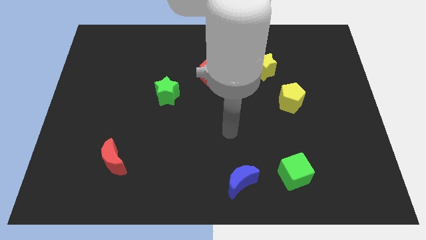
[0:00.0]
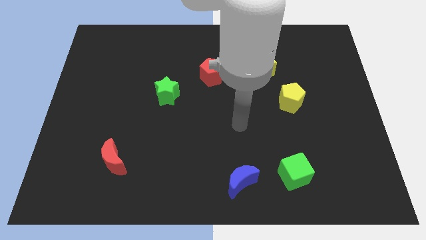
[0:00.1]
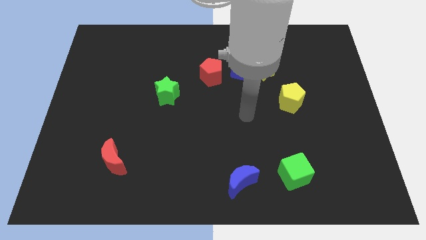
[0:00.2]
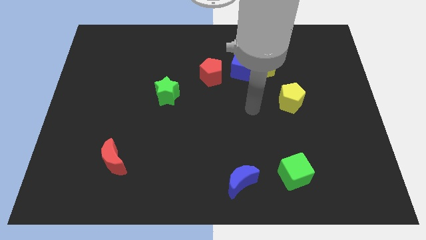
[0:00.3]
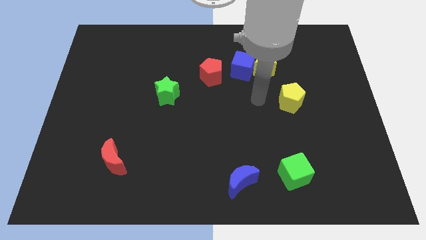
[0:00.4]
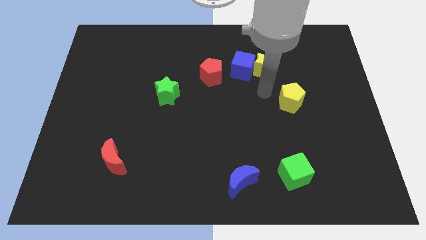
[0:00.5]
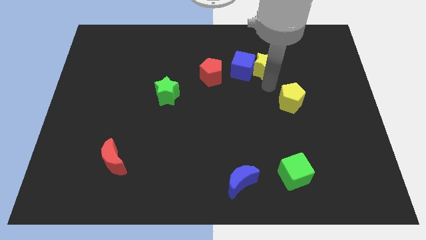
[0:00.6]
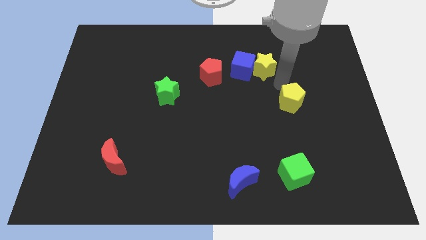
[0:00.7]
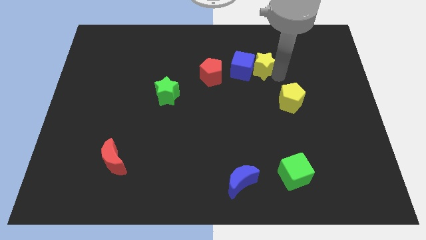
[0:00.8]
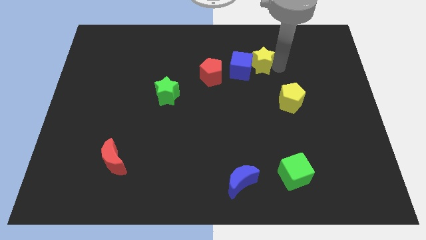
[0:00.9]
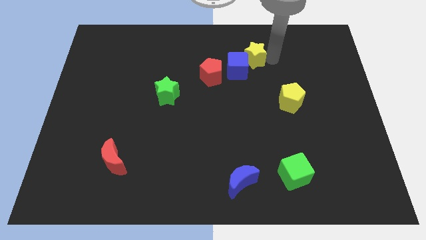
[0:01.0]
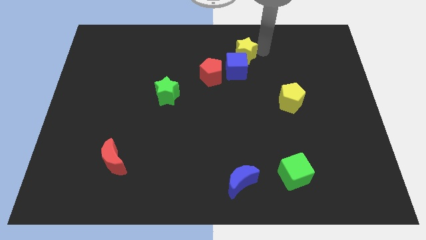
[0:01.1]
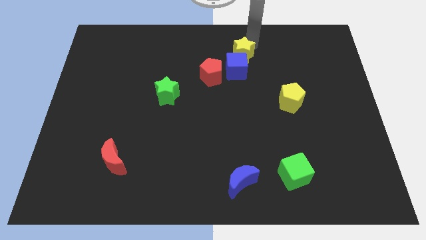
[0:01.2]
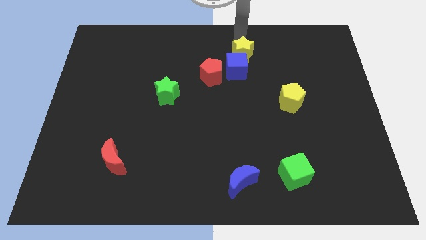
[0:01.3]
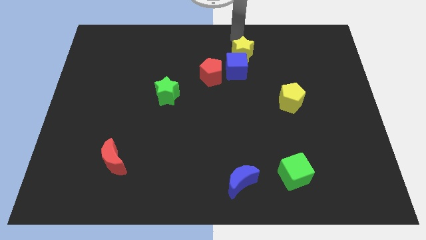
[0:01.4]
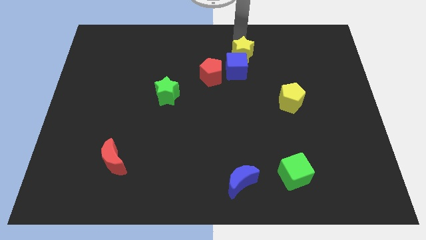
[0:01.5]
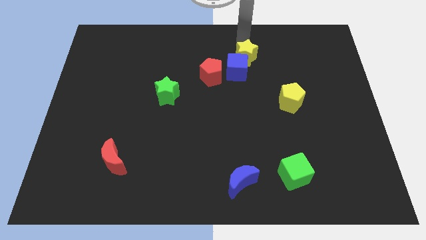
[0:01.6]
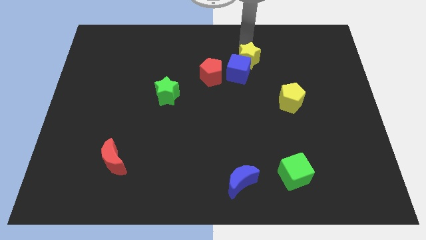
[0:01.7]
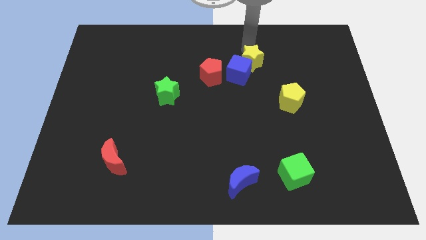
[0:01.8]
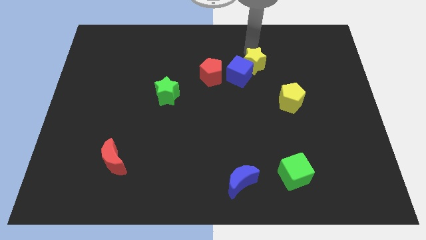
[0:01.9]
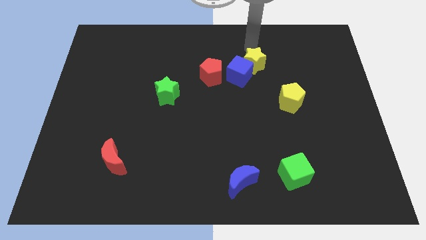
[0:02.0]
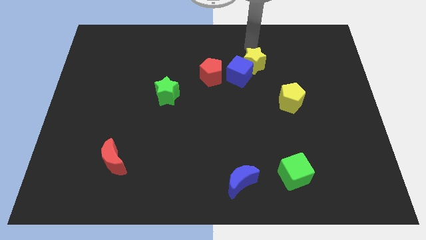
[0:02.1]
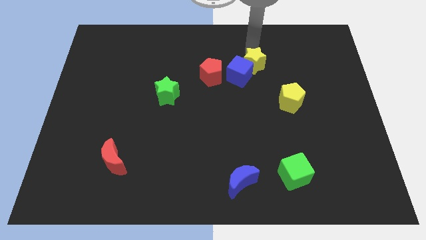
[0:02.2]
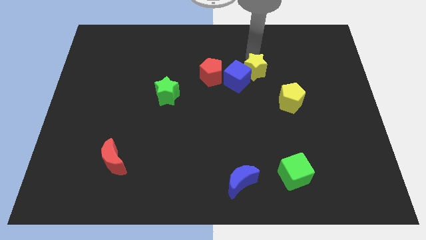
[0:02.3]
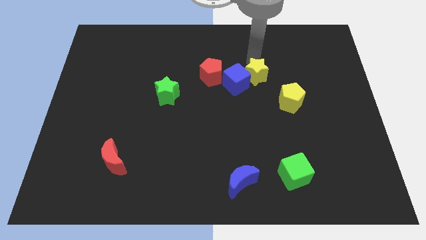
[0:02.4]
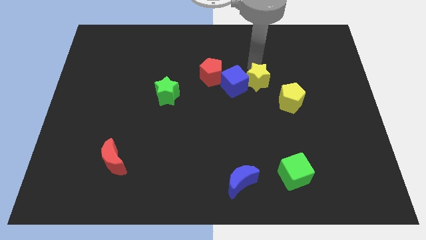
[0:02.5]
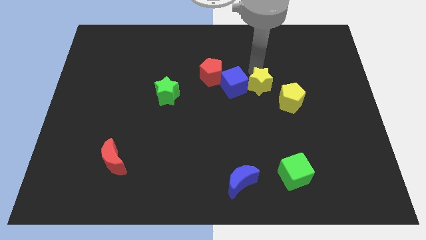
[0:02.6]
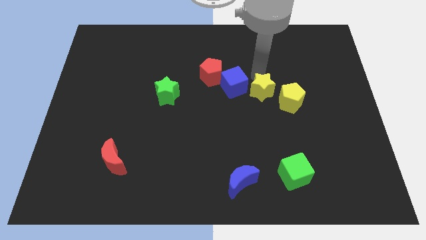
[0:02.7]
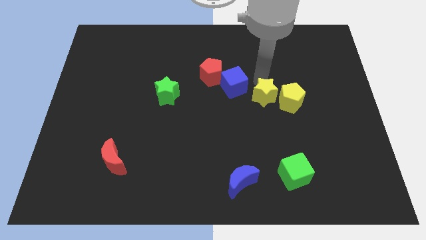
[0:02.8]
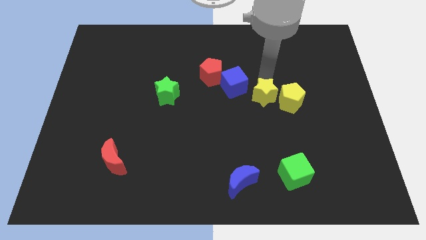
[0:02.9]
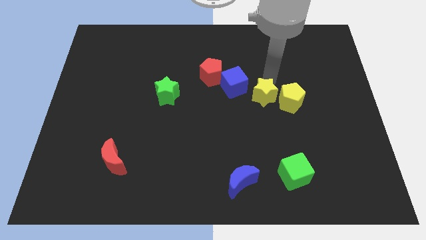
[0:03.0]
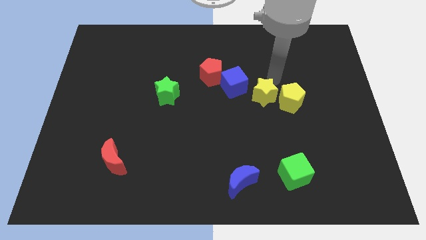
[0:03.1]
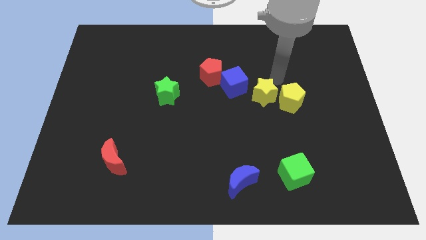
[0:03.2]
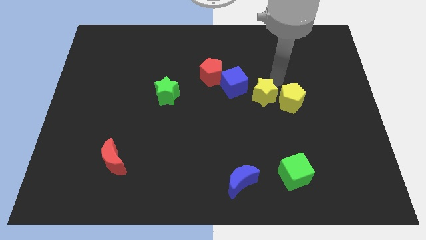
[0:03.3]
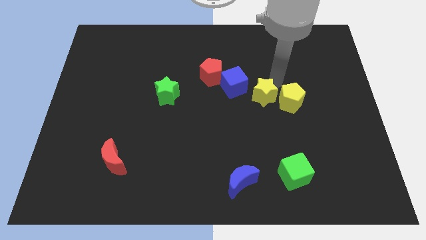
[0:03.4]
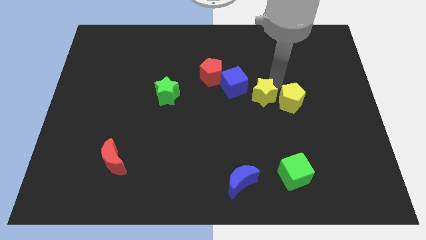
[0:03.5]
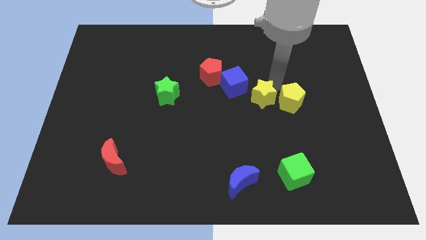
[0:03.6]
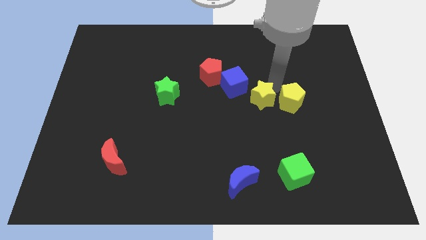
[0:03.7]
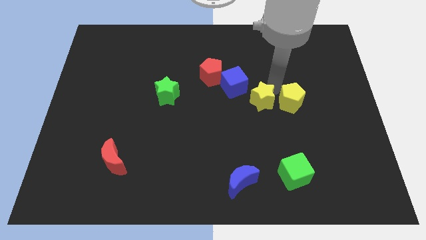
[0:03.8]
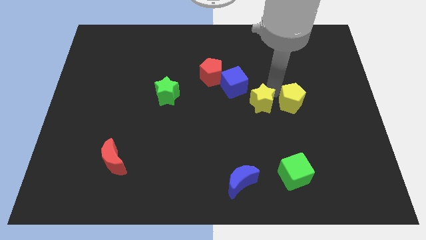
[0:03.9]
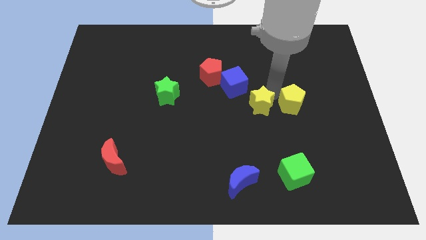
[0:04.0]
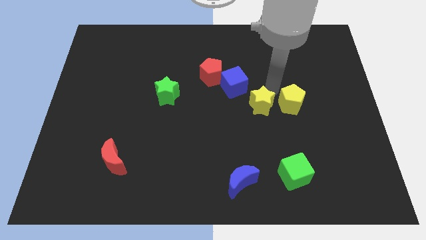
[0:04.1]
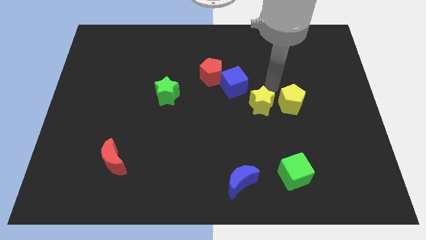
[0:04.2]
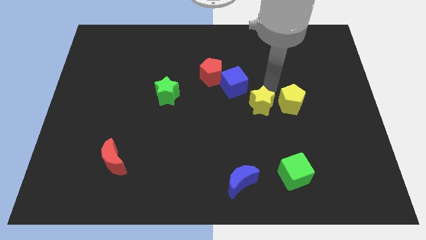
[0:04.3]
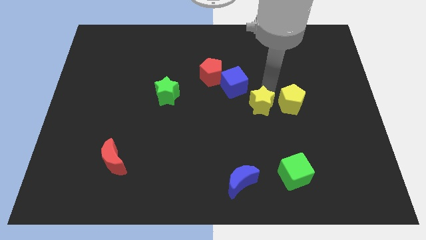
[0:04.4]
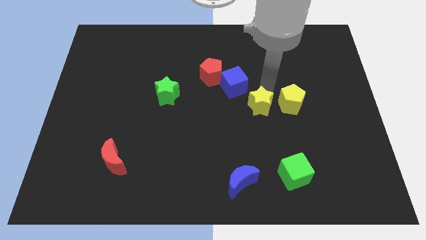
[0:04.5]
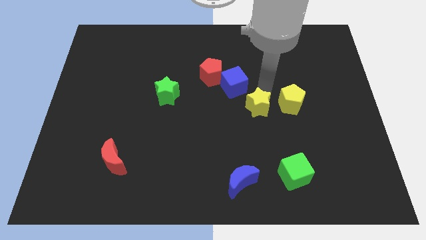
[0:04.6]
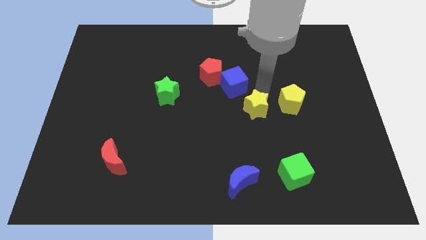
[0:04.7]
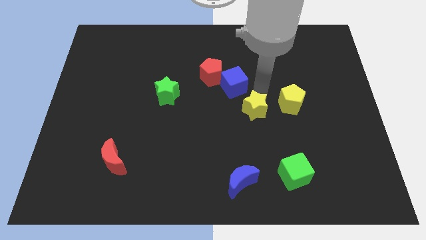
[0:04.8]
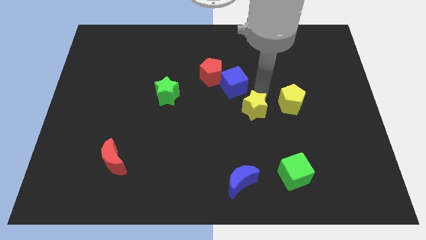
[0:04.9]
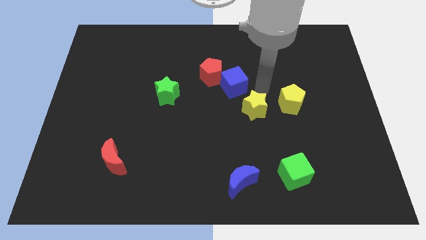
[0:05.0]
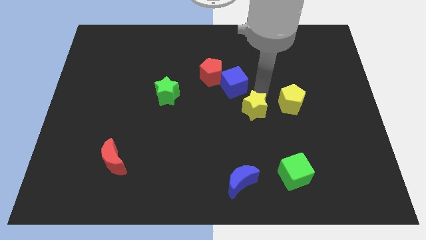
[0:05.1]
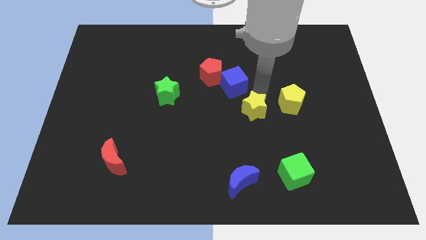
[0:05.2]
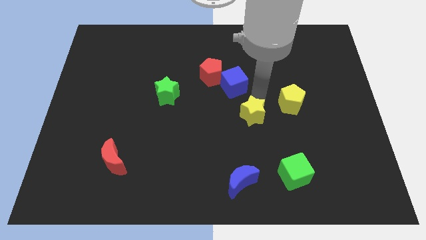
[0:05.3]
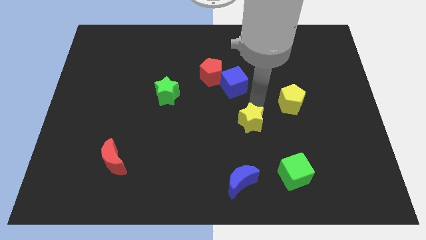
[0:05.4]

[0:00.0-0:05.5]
move the yellow star to the top side of the blue moon

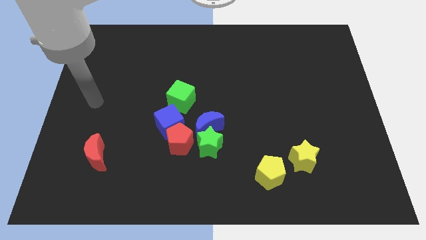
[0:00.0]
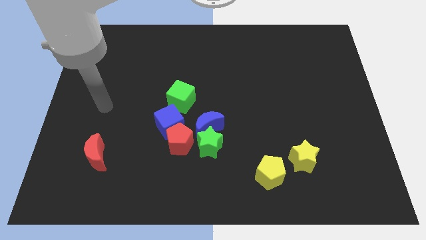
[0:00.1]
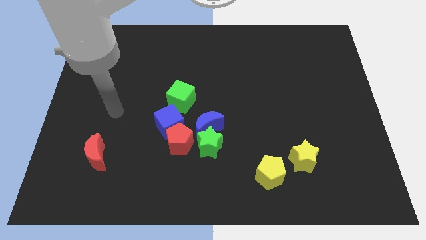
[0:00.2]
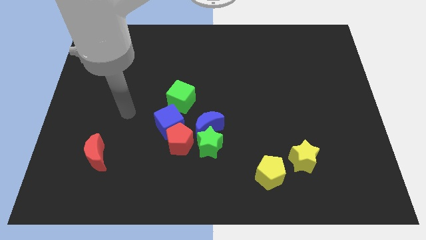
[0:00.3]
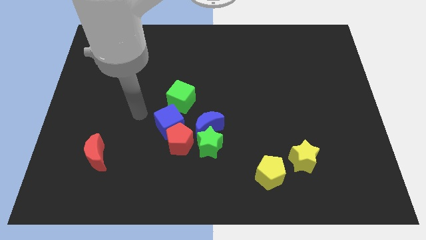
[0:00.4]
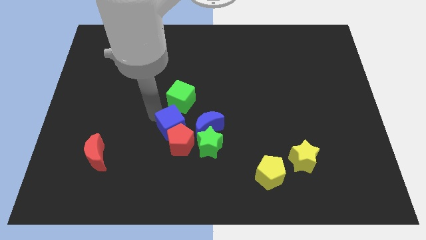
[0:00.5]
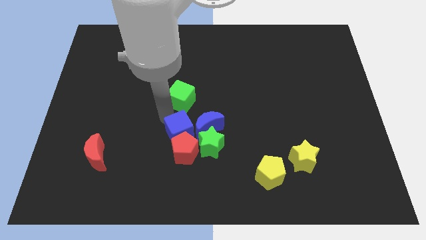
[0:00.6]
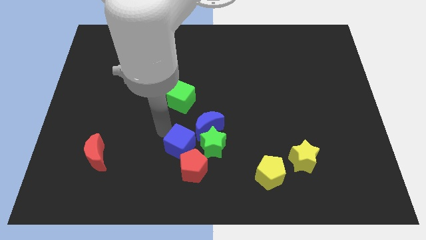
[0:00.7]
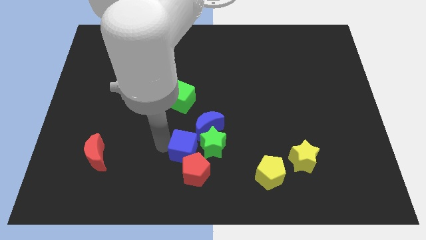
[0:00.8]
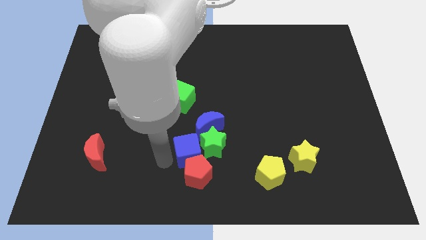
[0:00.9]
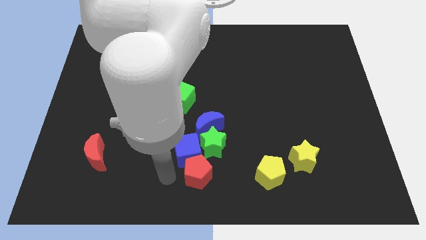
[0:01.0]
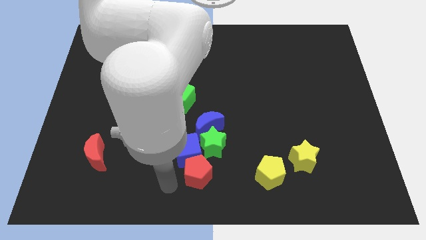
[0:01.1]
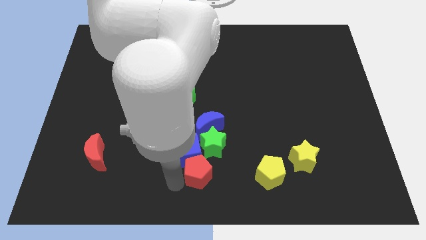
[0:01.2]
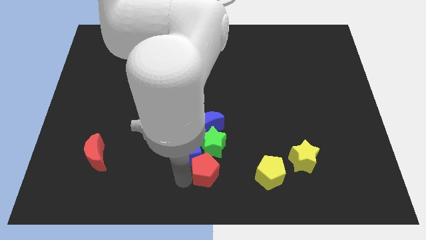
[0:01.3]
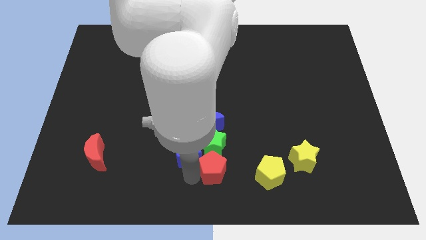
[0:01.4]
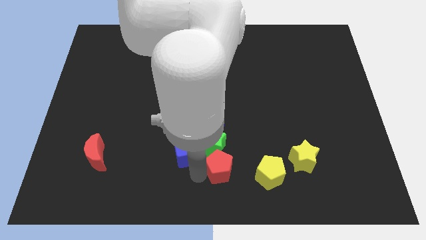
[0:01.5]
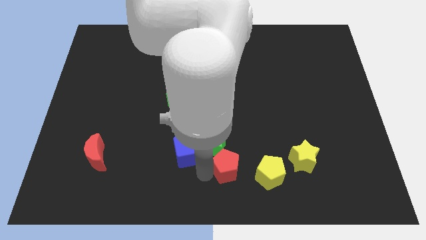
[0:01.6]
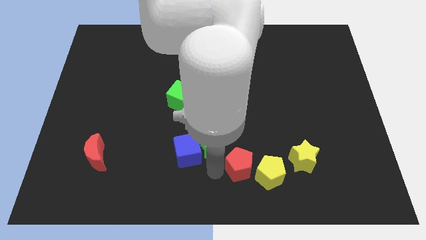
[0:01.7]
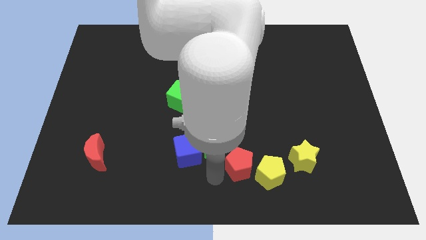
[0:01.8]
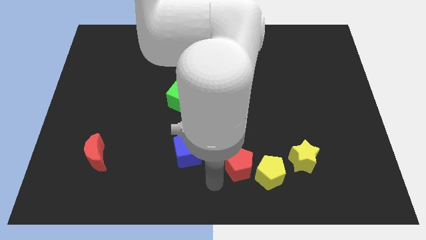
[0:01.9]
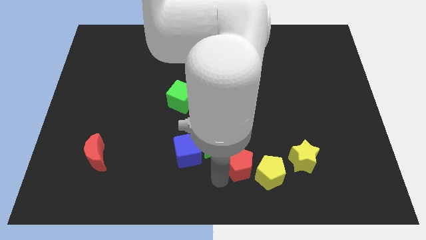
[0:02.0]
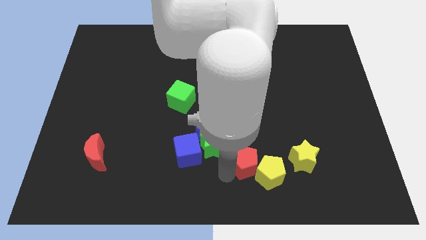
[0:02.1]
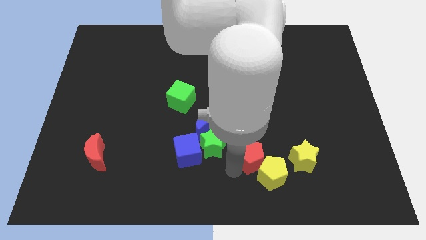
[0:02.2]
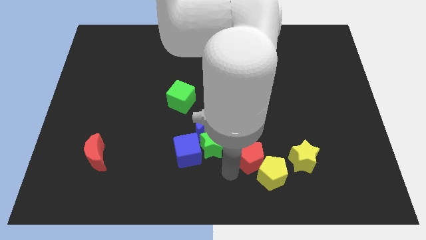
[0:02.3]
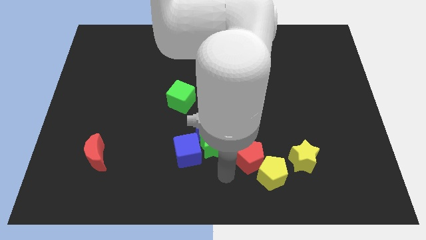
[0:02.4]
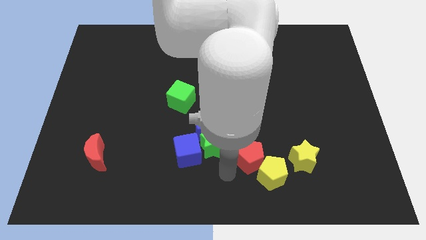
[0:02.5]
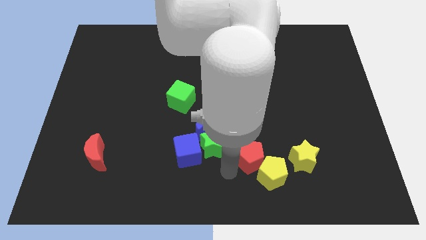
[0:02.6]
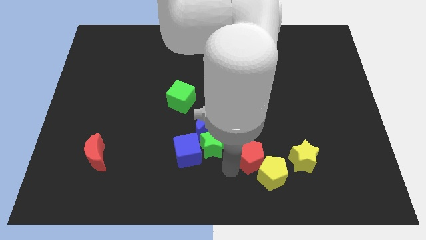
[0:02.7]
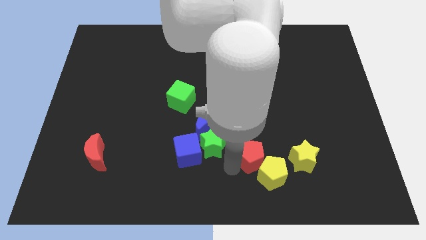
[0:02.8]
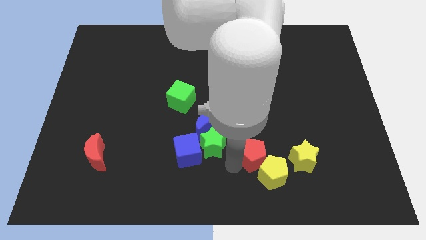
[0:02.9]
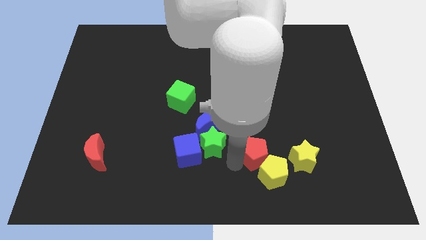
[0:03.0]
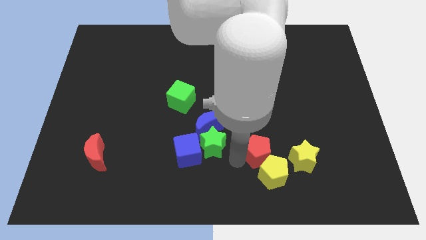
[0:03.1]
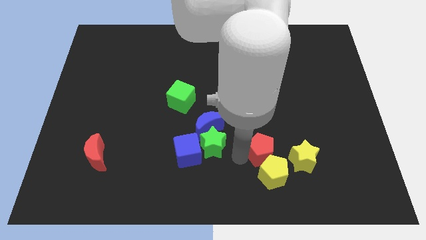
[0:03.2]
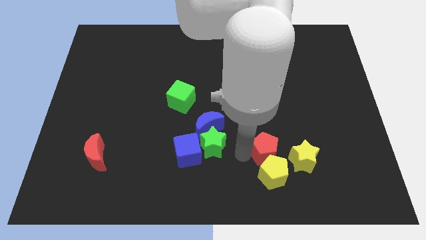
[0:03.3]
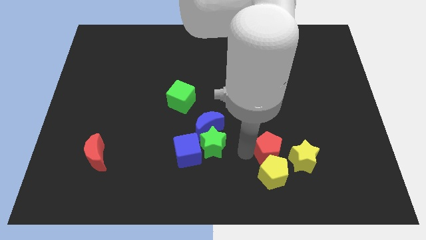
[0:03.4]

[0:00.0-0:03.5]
move the red pentagon to the top right side of the yellow pentagon
